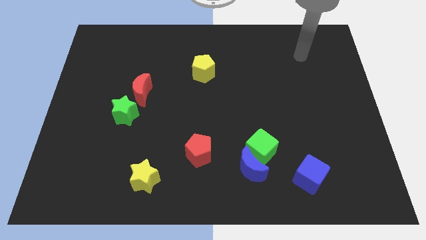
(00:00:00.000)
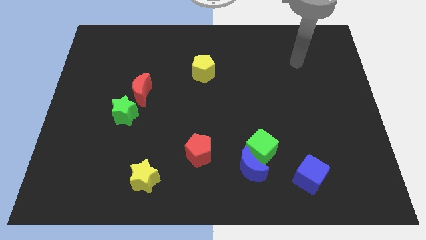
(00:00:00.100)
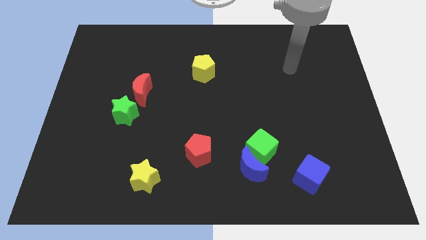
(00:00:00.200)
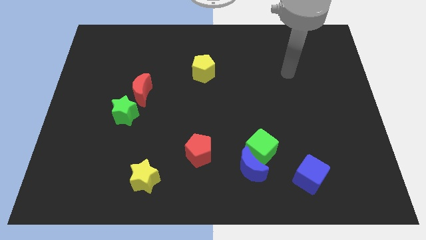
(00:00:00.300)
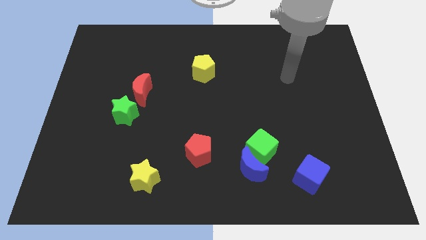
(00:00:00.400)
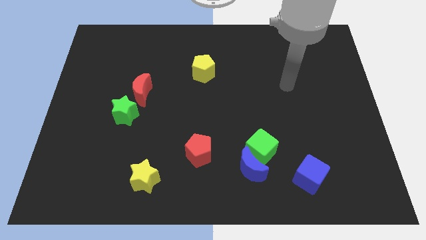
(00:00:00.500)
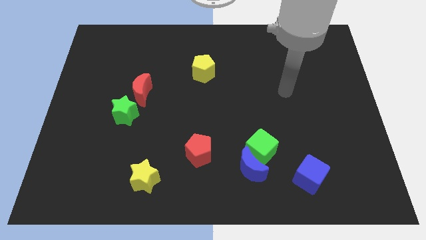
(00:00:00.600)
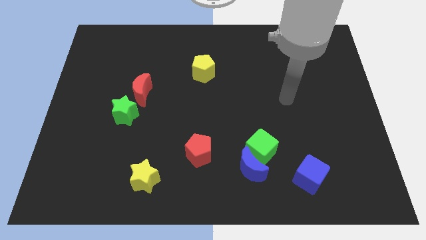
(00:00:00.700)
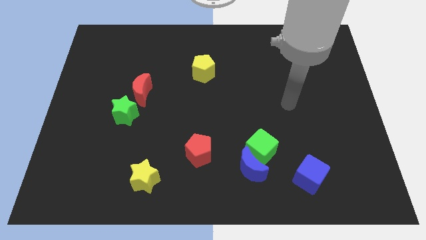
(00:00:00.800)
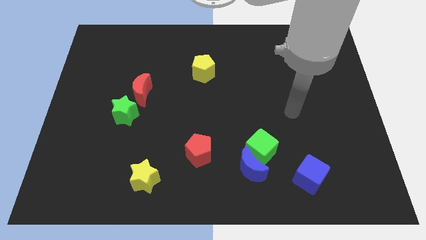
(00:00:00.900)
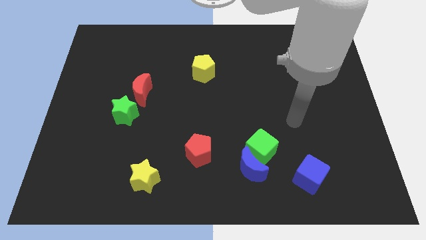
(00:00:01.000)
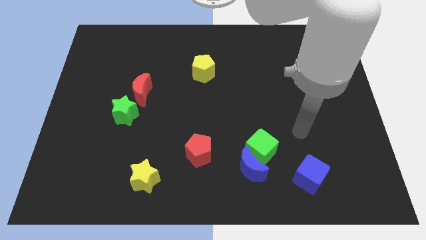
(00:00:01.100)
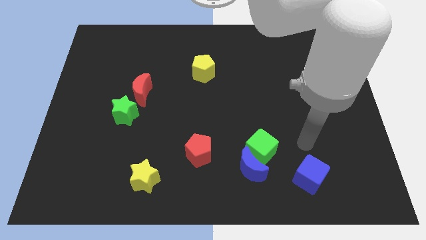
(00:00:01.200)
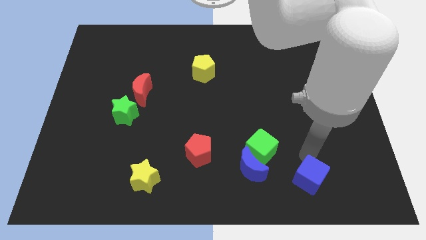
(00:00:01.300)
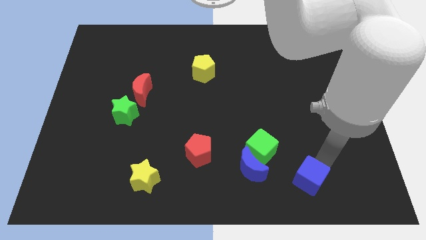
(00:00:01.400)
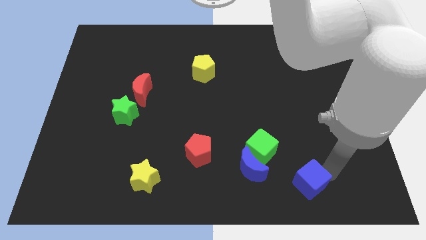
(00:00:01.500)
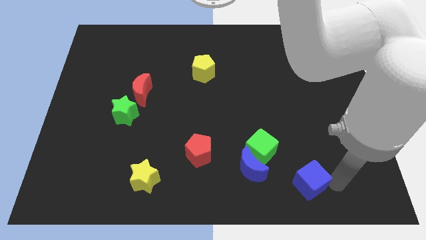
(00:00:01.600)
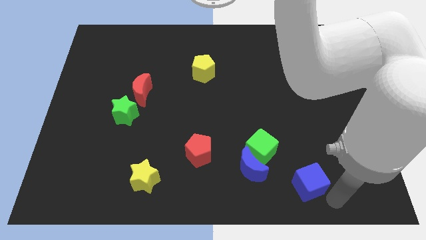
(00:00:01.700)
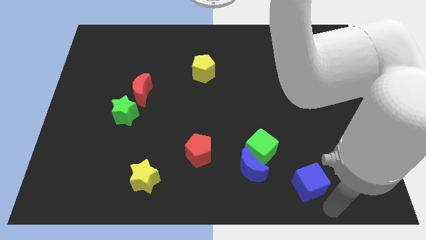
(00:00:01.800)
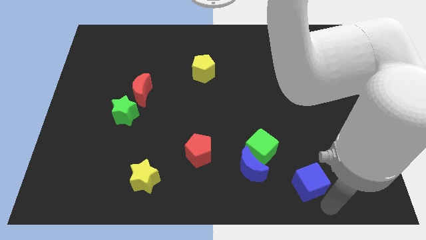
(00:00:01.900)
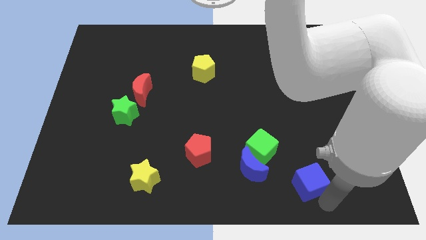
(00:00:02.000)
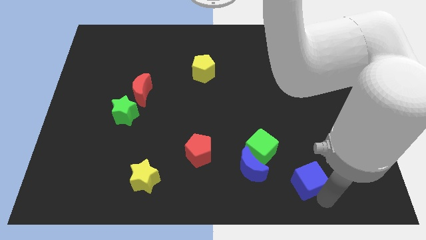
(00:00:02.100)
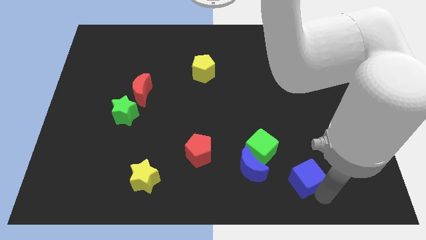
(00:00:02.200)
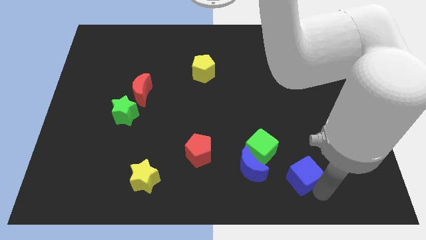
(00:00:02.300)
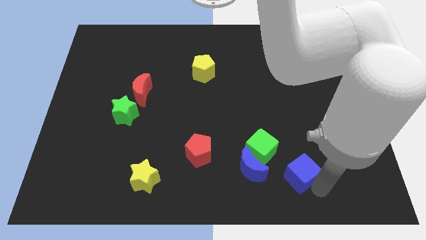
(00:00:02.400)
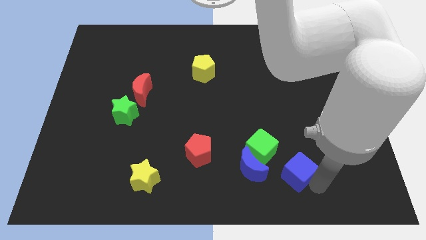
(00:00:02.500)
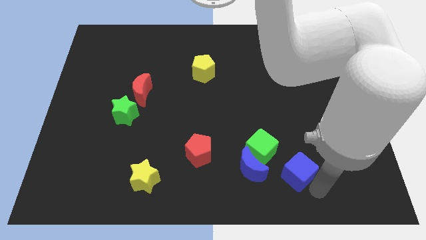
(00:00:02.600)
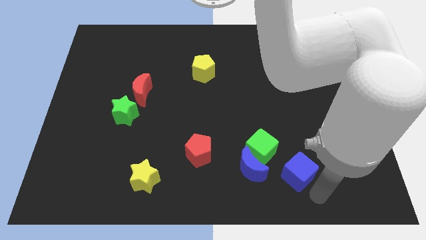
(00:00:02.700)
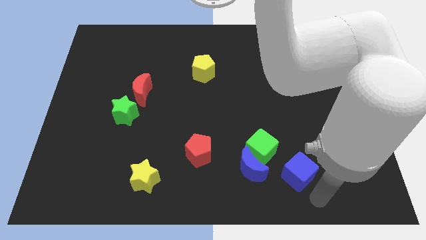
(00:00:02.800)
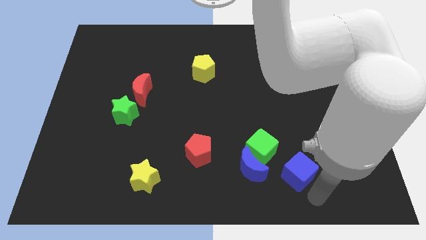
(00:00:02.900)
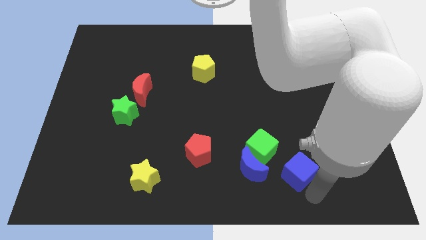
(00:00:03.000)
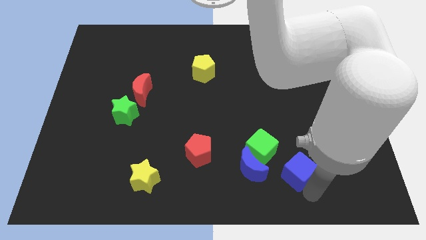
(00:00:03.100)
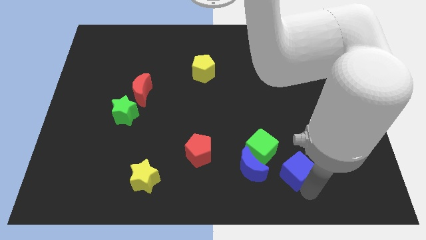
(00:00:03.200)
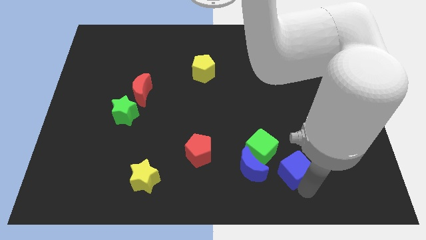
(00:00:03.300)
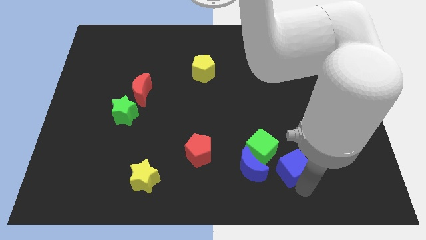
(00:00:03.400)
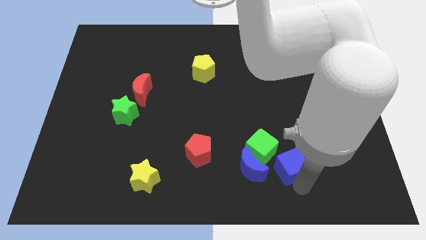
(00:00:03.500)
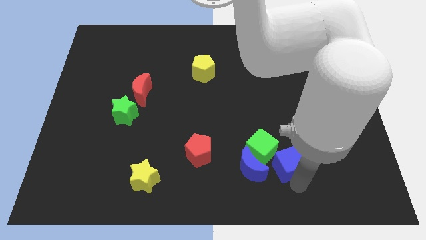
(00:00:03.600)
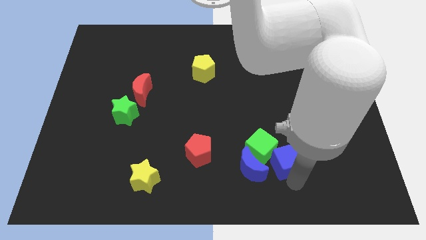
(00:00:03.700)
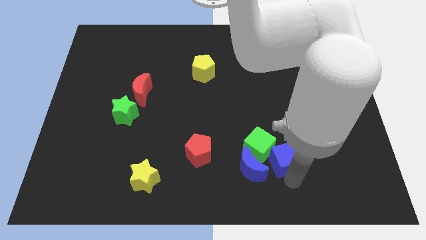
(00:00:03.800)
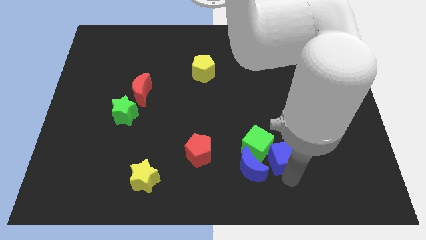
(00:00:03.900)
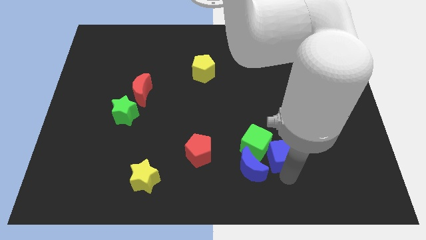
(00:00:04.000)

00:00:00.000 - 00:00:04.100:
move the blue cube diagonally upwards and left slightly

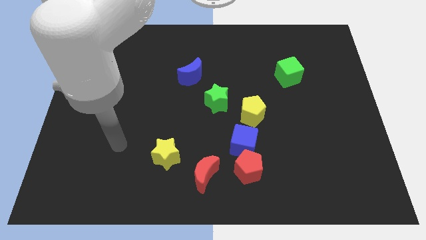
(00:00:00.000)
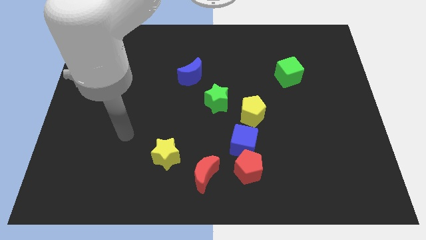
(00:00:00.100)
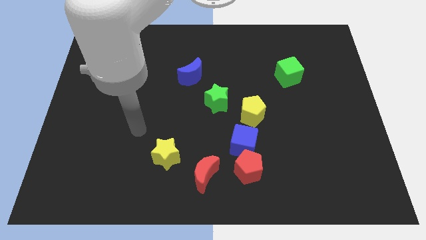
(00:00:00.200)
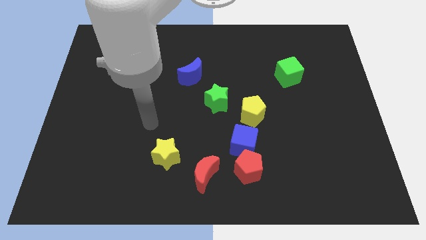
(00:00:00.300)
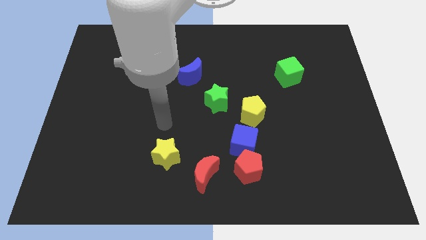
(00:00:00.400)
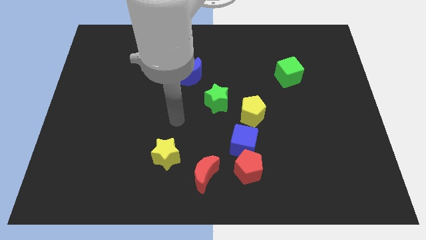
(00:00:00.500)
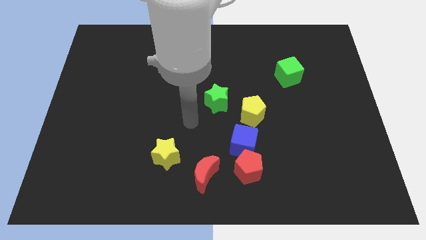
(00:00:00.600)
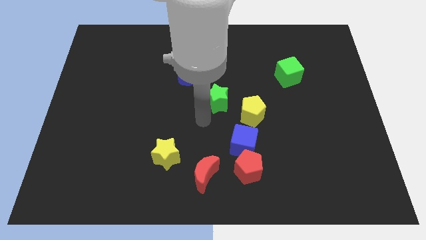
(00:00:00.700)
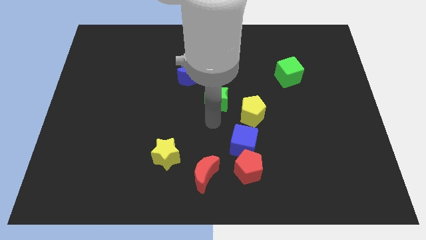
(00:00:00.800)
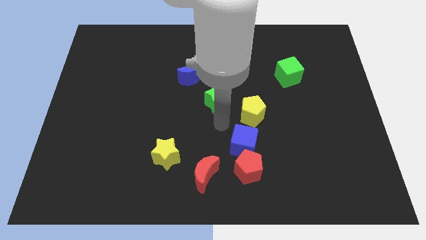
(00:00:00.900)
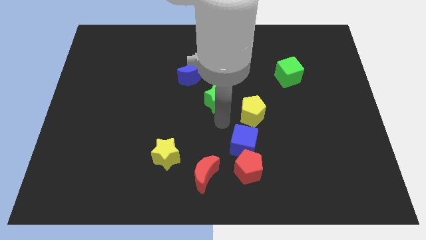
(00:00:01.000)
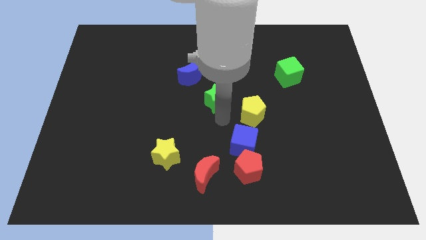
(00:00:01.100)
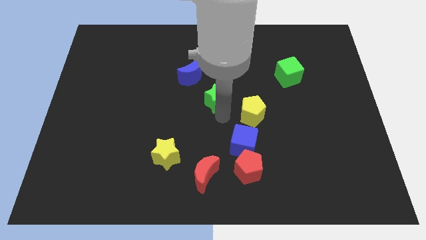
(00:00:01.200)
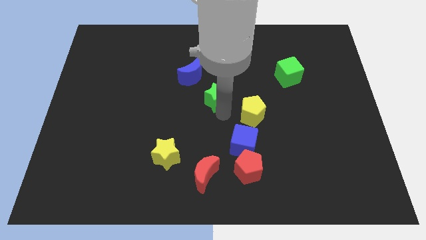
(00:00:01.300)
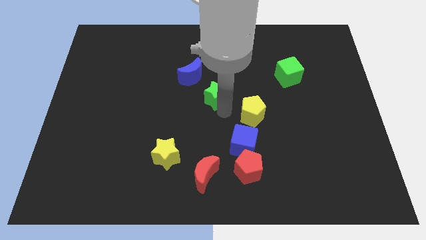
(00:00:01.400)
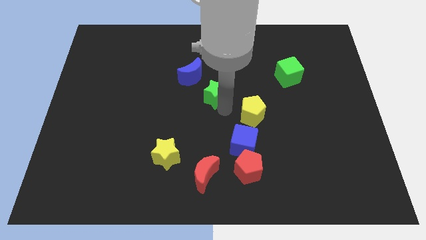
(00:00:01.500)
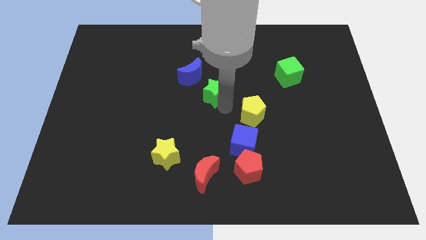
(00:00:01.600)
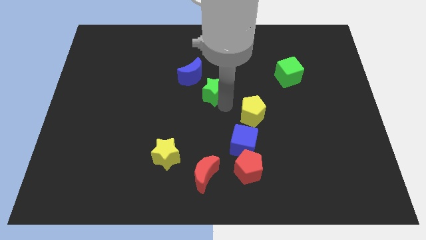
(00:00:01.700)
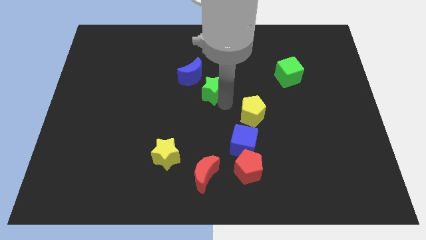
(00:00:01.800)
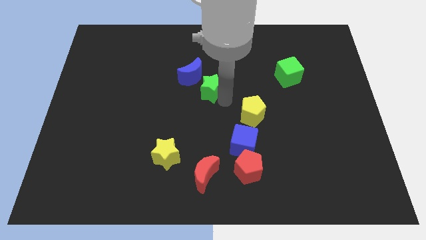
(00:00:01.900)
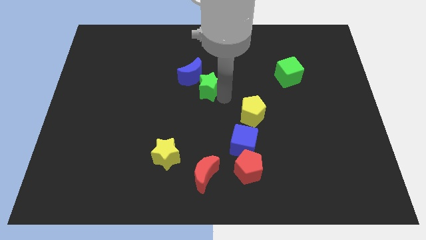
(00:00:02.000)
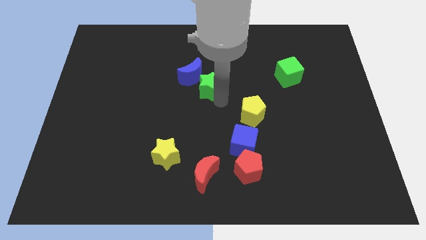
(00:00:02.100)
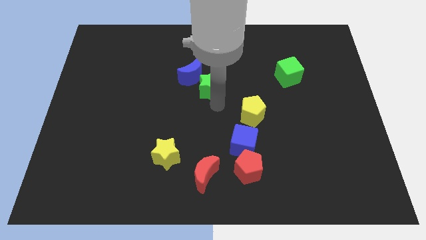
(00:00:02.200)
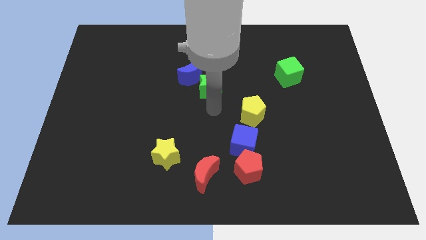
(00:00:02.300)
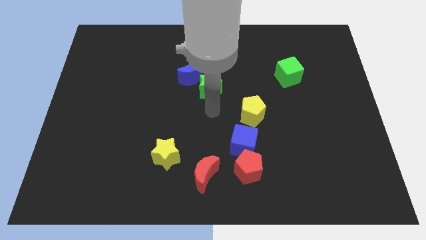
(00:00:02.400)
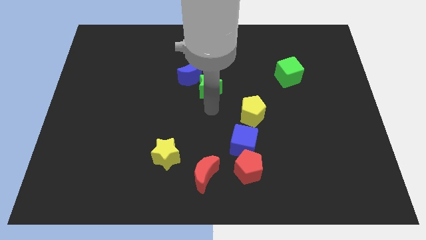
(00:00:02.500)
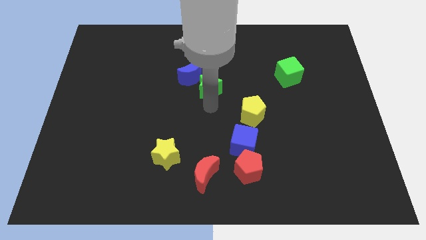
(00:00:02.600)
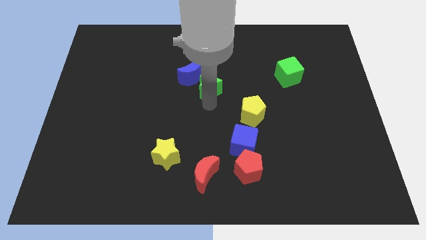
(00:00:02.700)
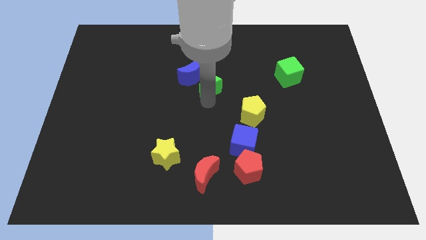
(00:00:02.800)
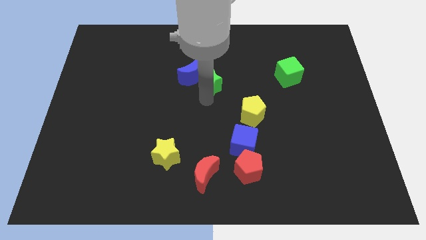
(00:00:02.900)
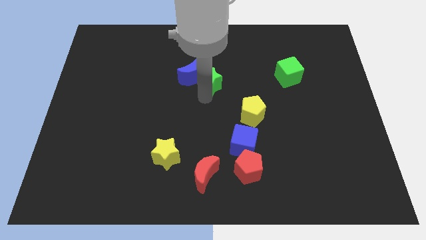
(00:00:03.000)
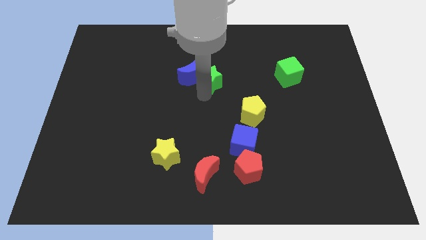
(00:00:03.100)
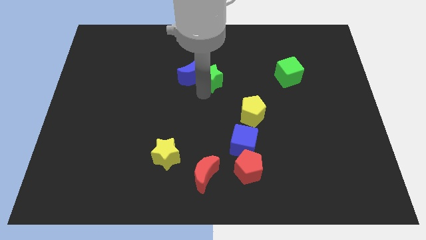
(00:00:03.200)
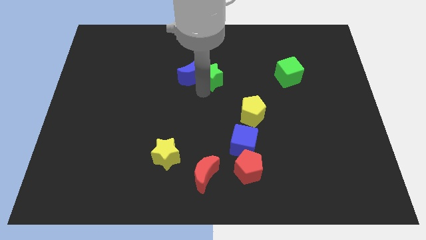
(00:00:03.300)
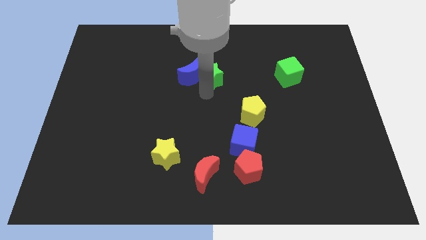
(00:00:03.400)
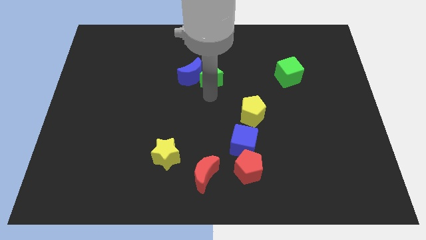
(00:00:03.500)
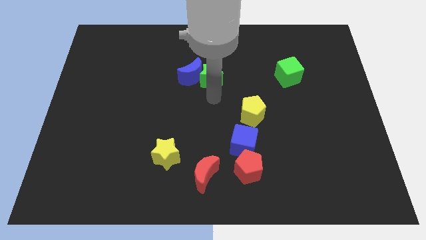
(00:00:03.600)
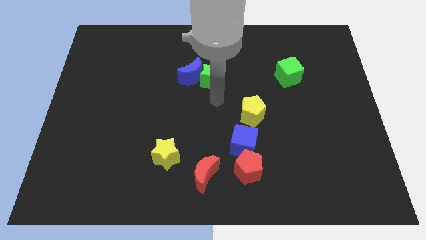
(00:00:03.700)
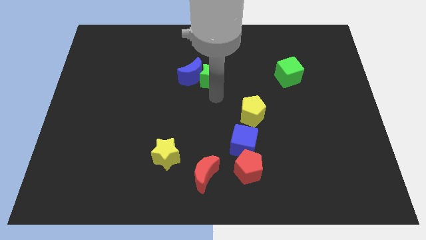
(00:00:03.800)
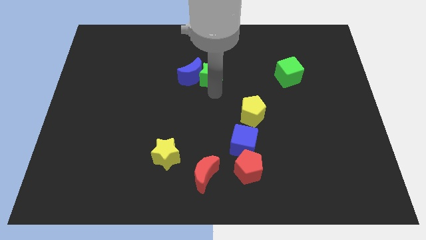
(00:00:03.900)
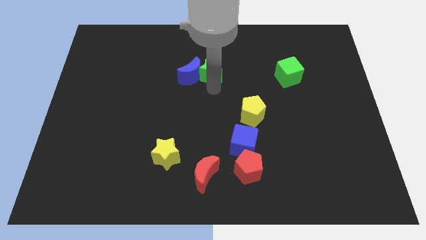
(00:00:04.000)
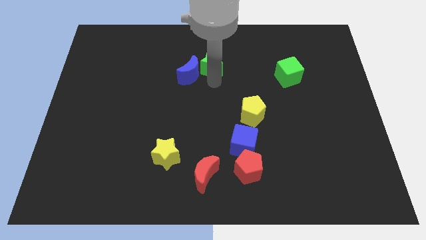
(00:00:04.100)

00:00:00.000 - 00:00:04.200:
slightly push the green star upwards and then to the left

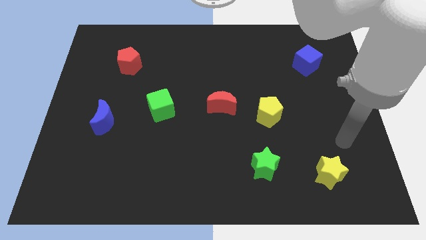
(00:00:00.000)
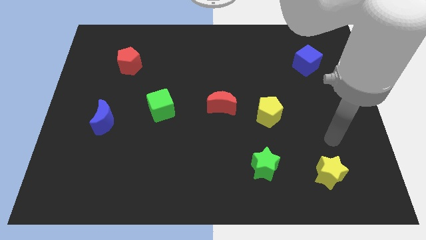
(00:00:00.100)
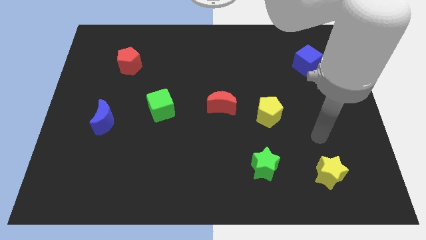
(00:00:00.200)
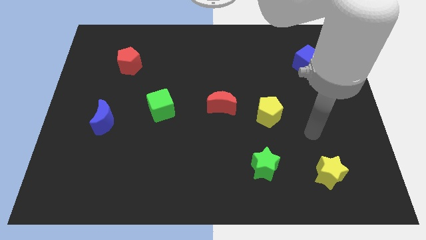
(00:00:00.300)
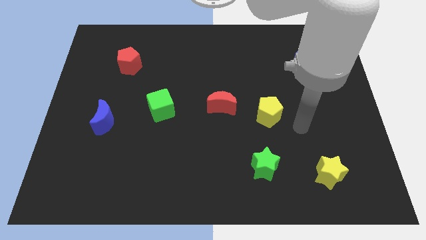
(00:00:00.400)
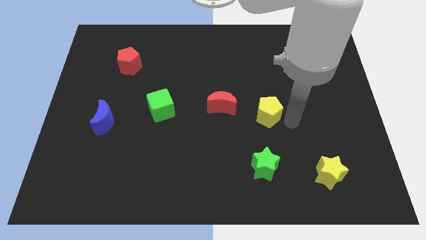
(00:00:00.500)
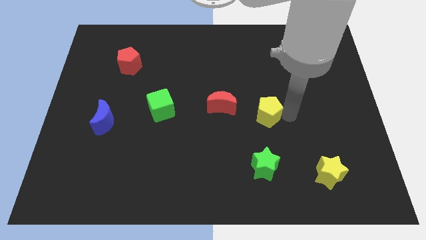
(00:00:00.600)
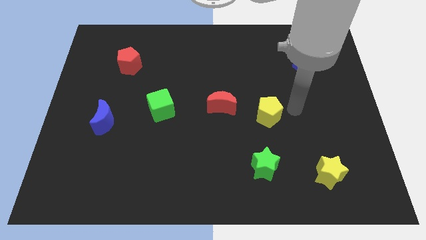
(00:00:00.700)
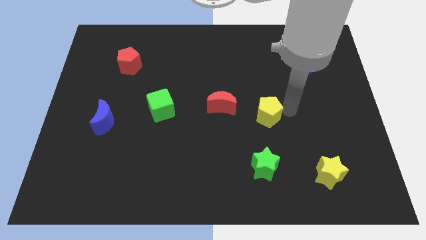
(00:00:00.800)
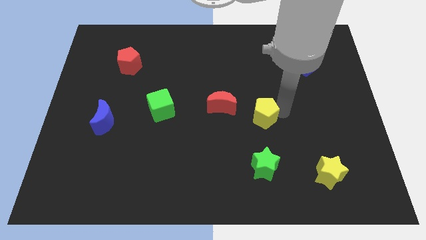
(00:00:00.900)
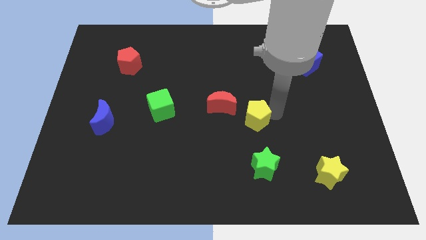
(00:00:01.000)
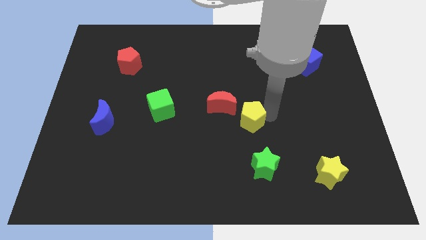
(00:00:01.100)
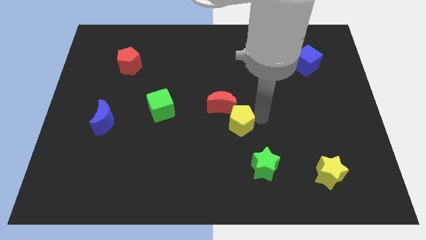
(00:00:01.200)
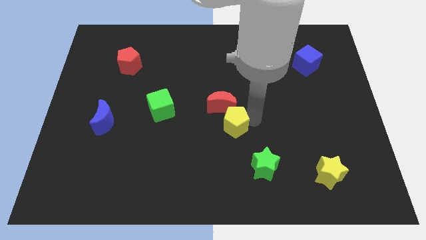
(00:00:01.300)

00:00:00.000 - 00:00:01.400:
move the yellow pentagon a little to the left
